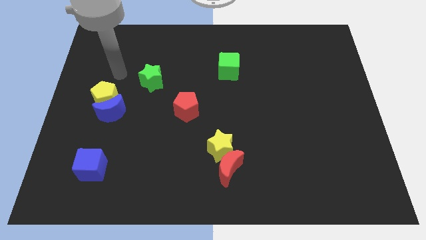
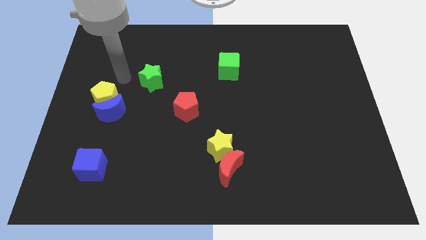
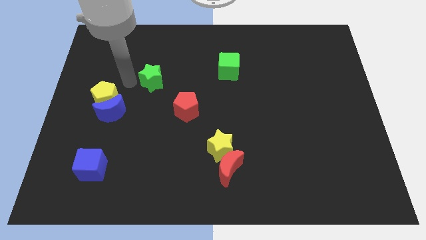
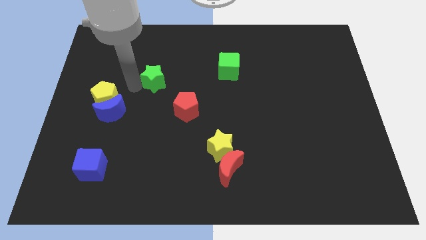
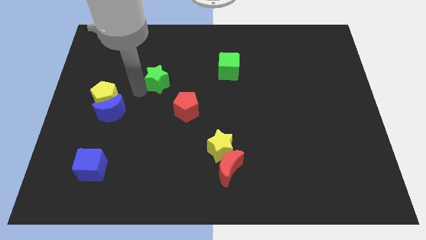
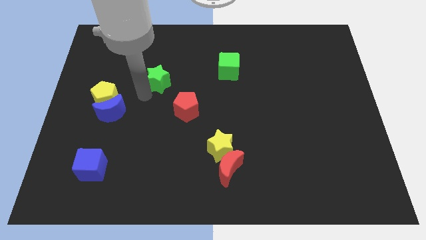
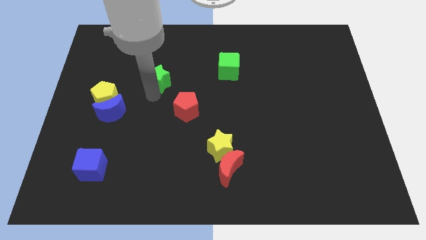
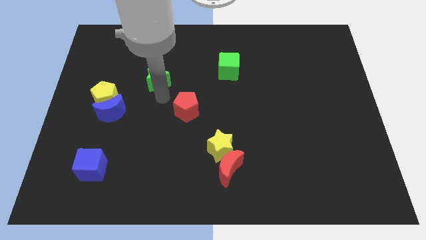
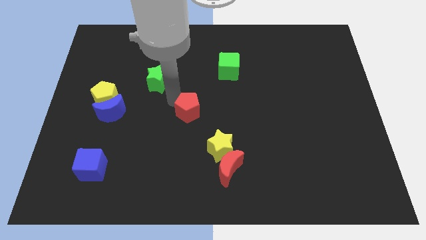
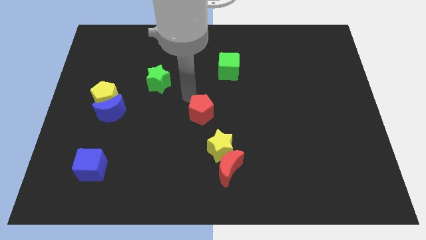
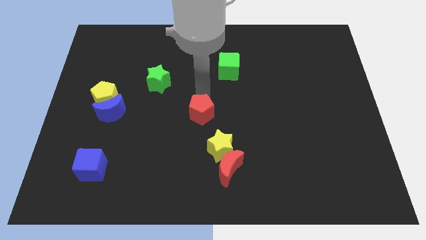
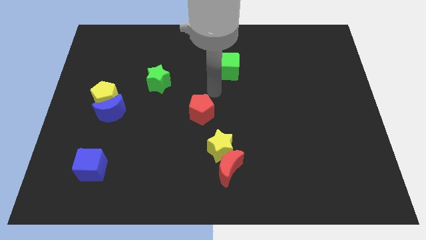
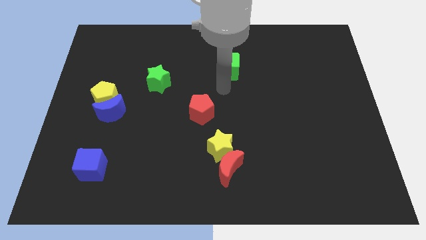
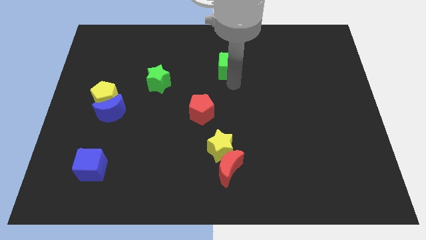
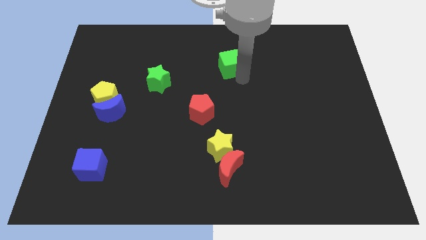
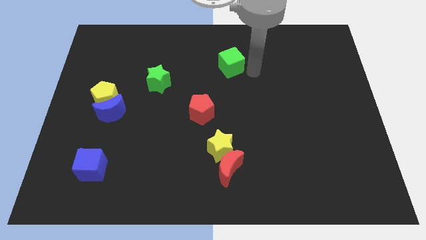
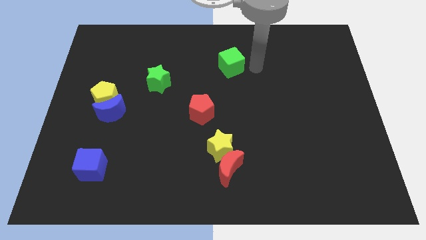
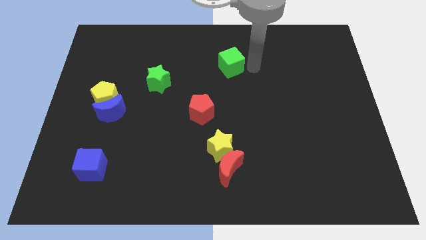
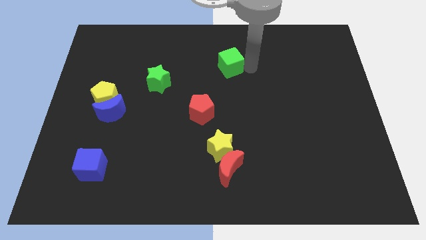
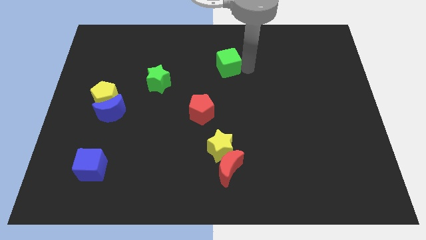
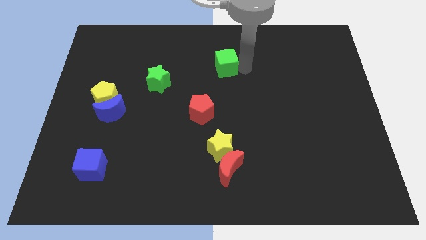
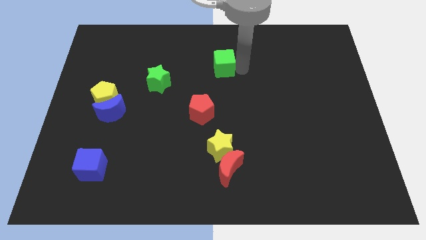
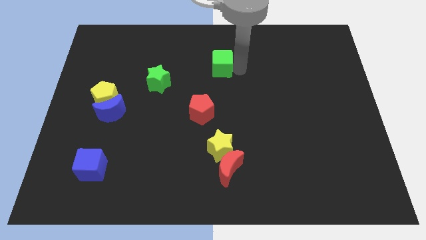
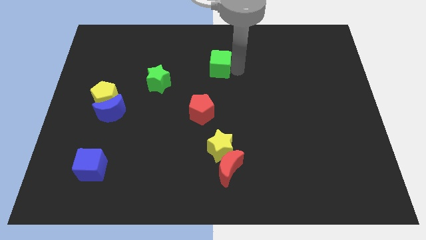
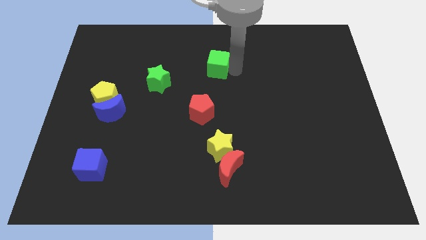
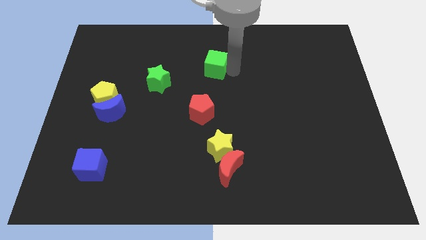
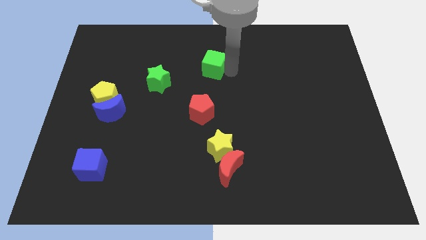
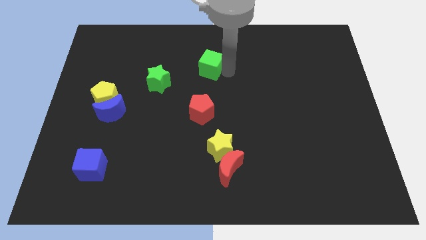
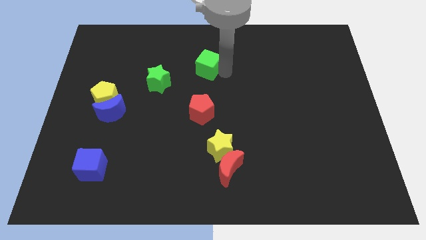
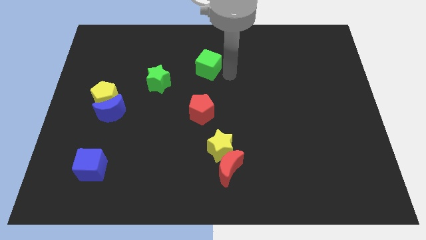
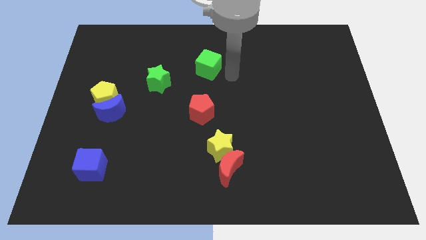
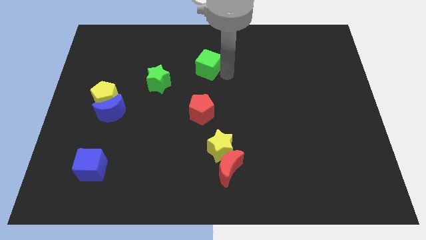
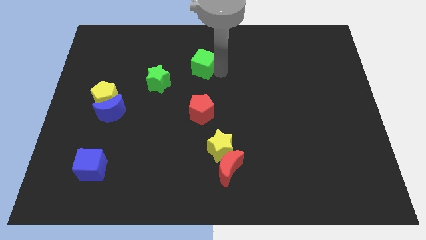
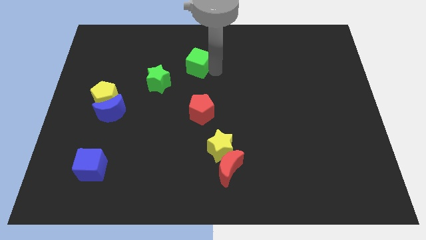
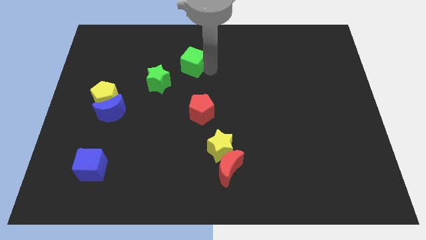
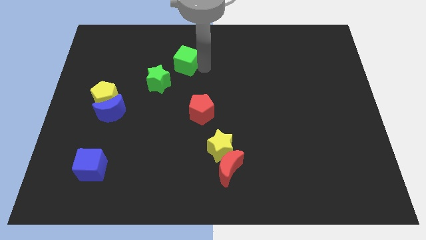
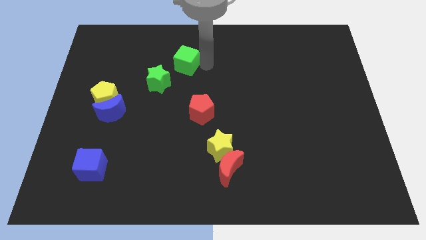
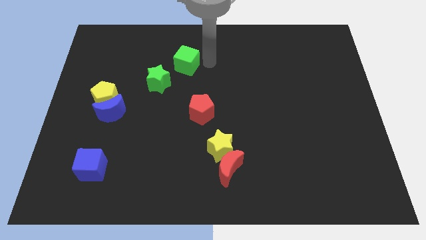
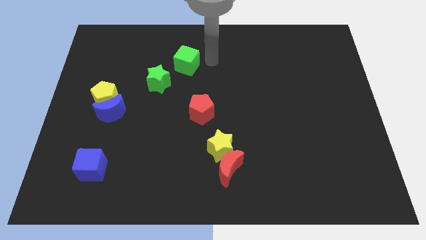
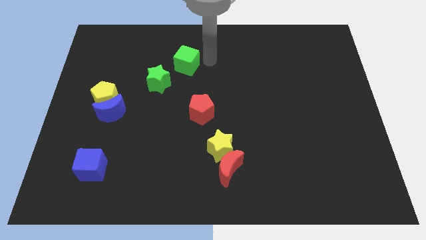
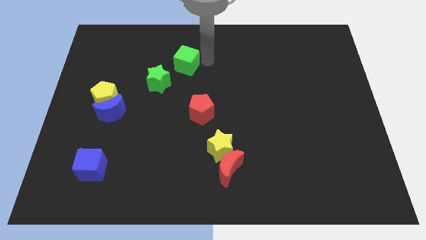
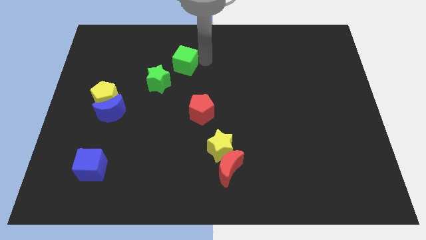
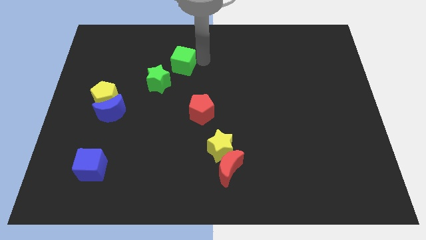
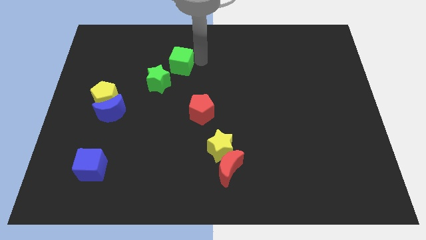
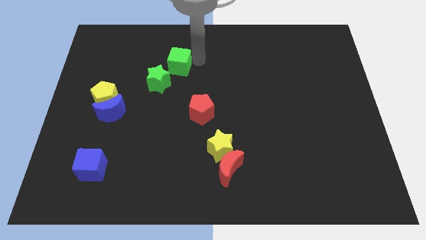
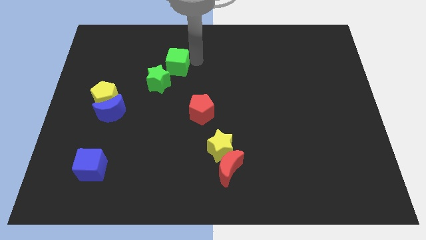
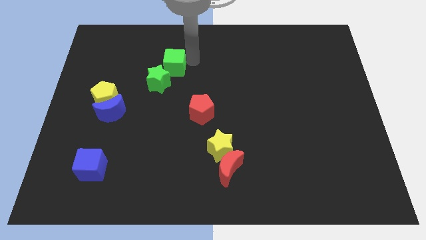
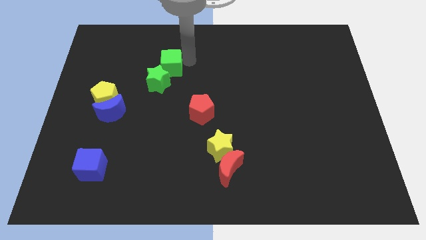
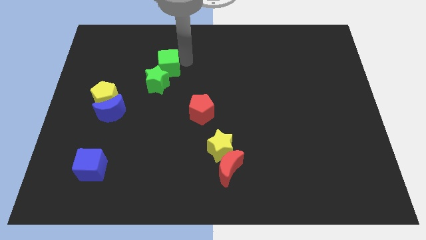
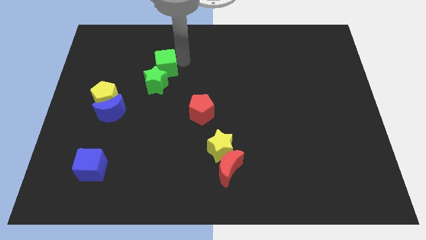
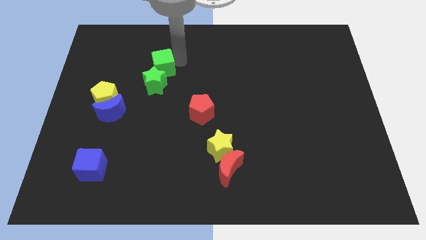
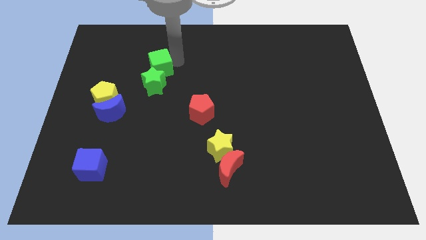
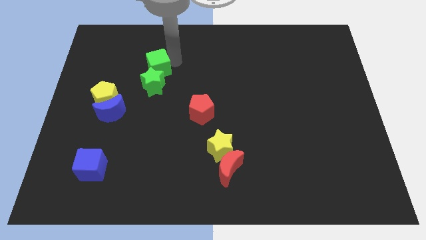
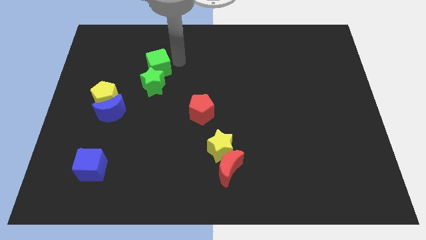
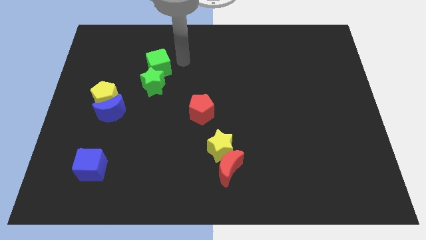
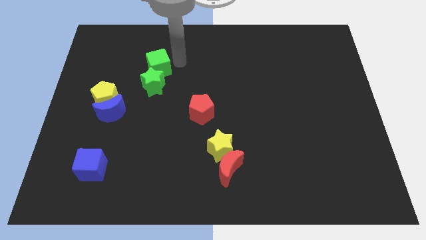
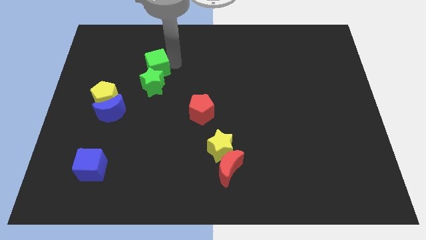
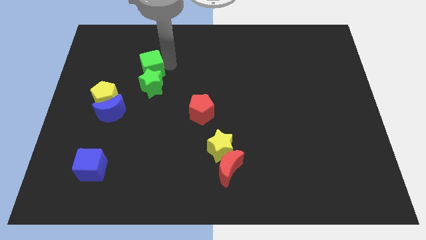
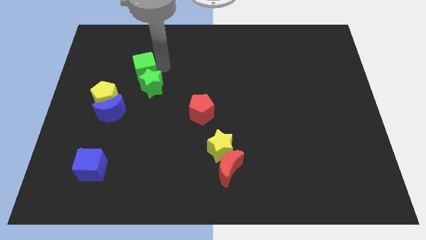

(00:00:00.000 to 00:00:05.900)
slide the green cube left

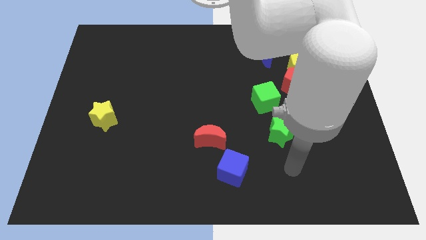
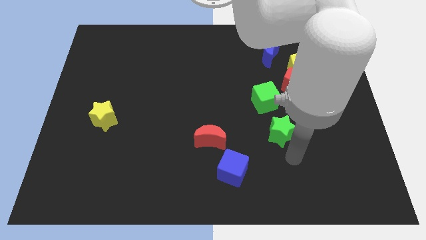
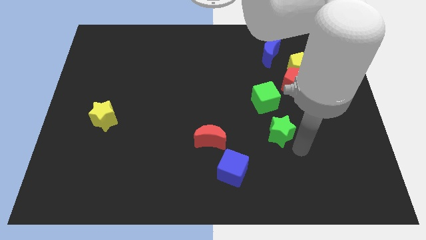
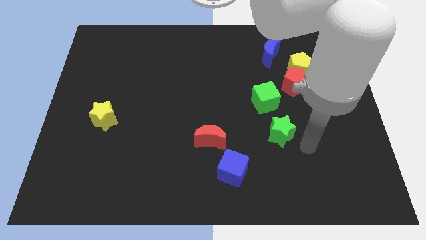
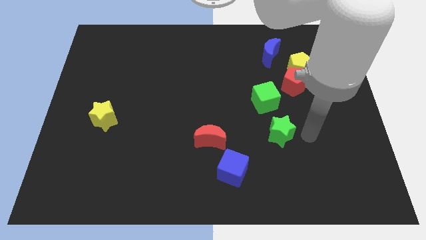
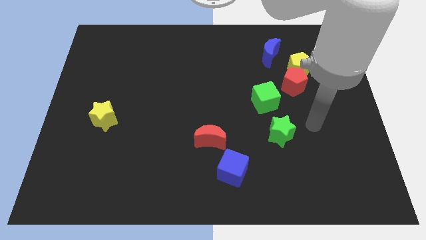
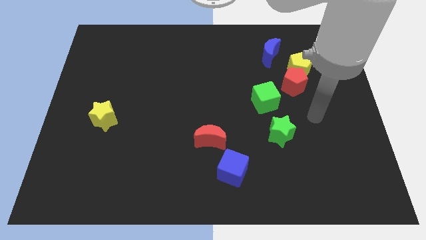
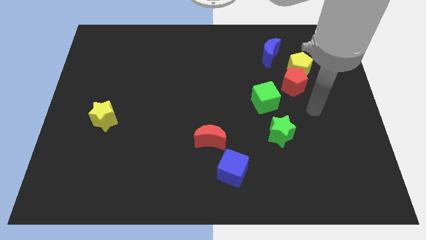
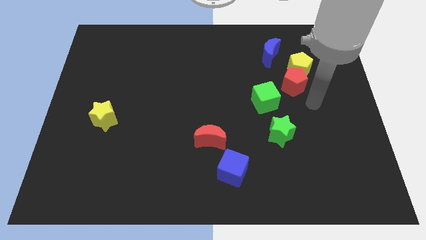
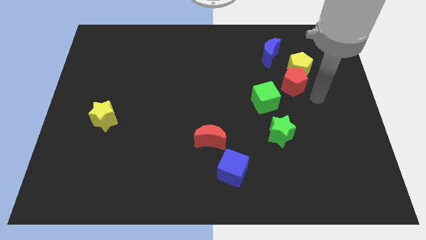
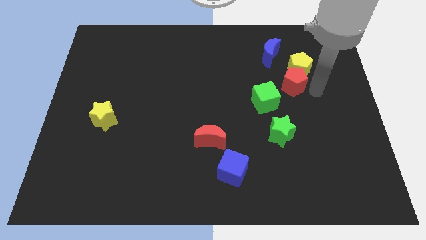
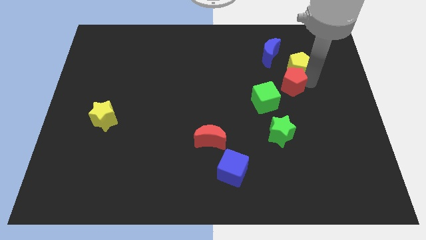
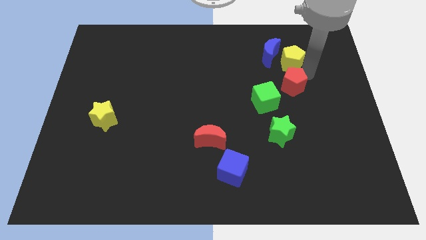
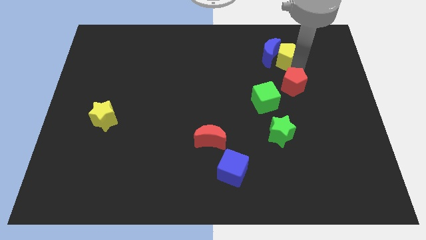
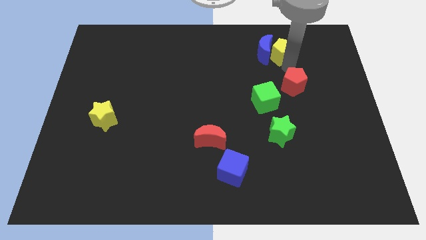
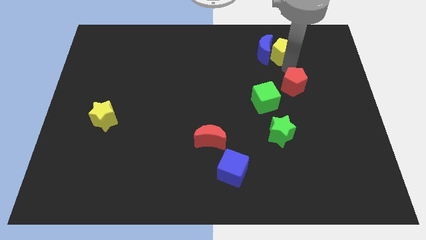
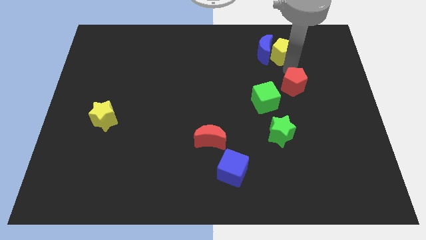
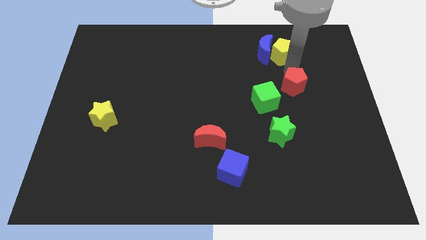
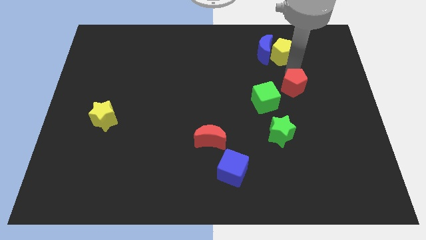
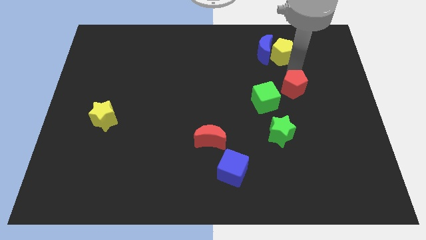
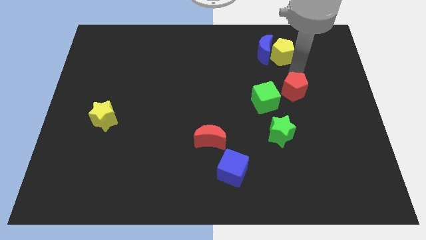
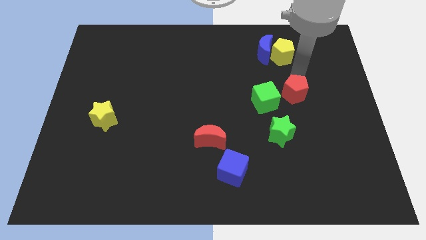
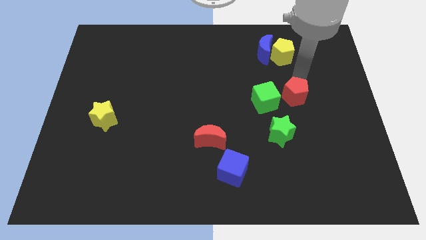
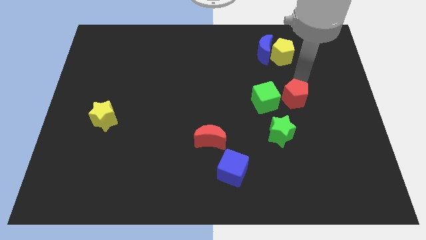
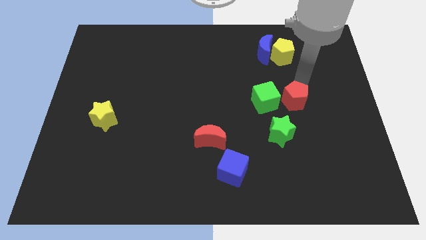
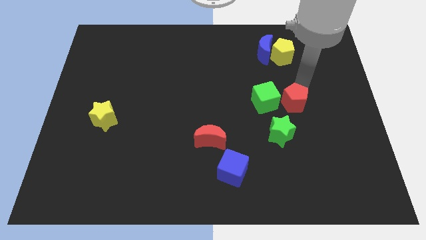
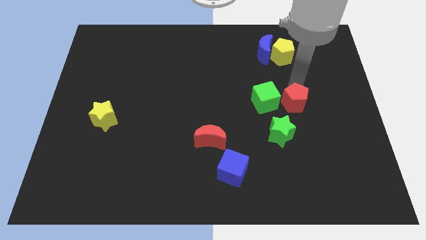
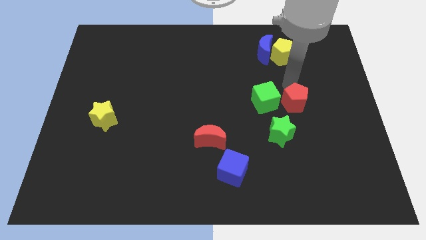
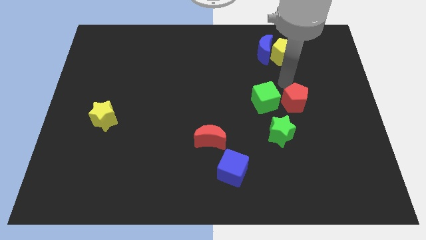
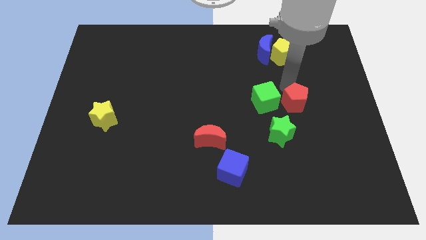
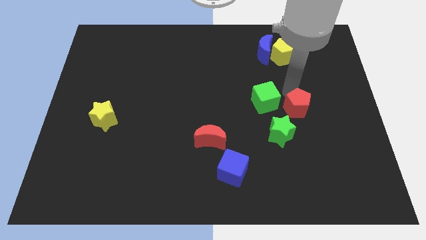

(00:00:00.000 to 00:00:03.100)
slightly slide the red pentagon downwards
